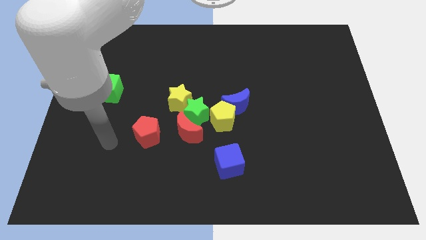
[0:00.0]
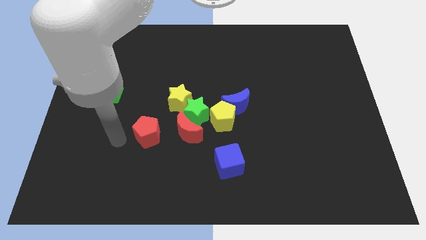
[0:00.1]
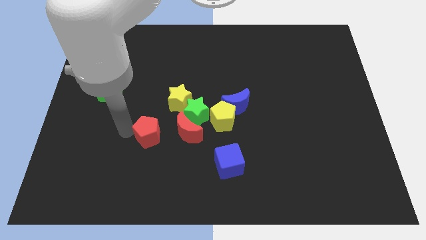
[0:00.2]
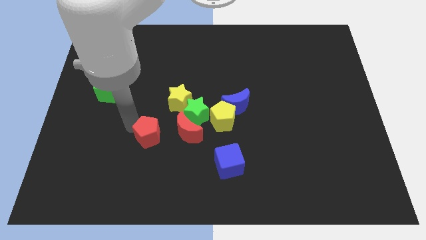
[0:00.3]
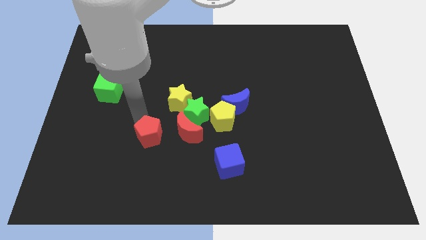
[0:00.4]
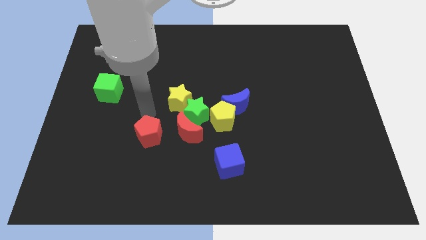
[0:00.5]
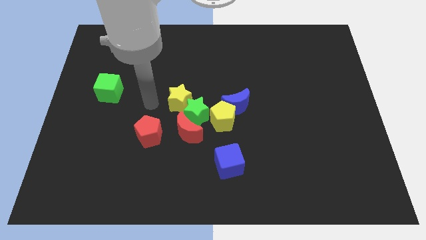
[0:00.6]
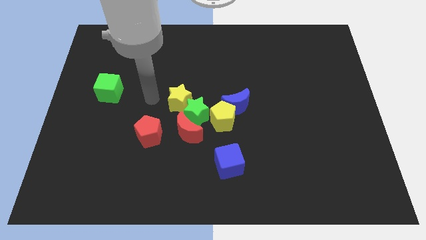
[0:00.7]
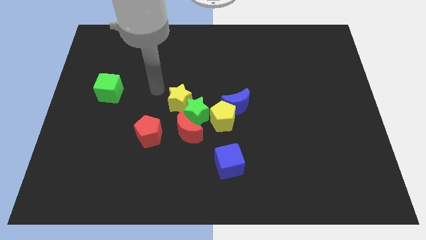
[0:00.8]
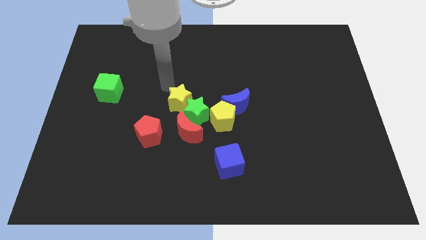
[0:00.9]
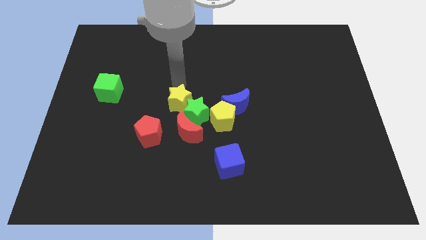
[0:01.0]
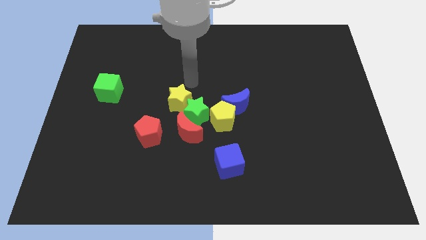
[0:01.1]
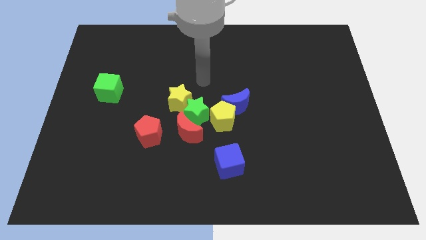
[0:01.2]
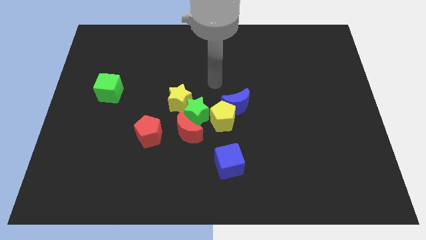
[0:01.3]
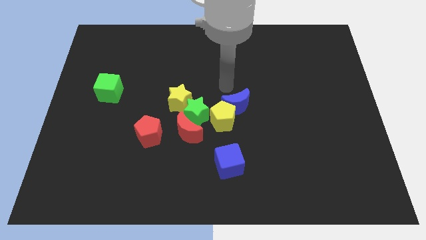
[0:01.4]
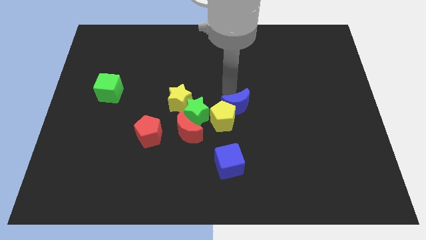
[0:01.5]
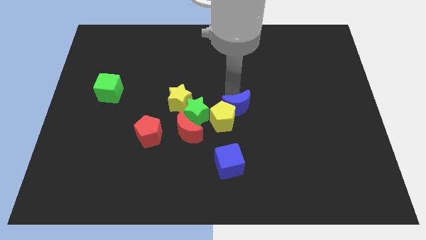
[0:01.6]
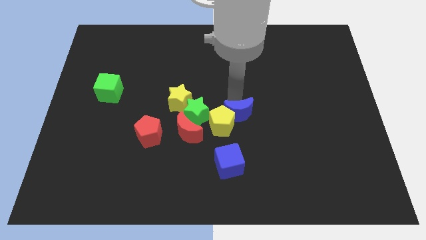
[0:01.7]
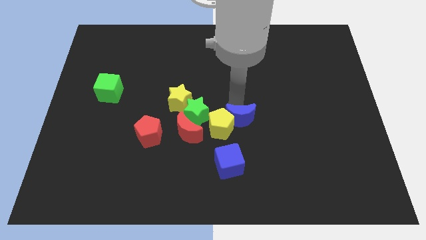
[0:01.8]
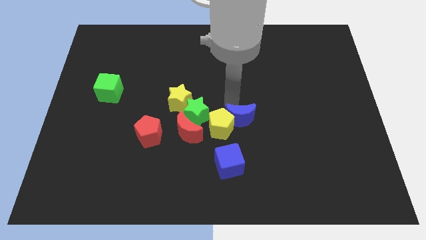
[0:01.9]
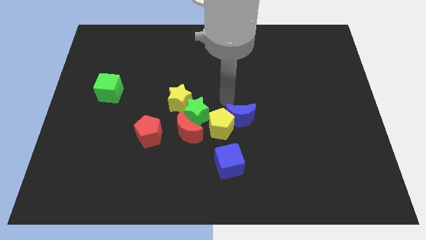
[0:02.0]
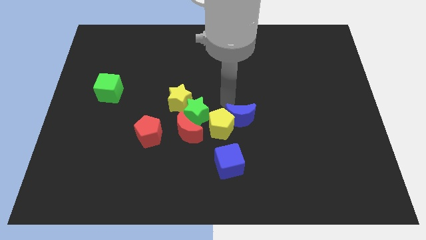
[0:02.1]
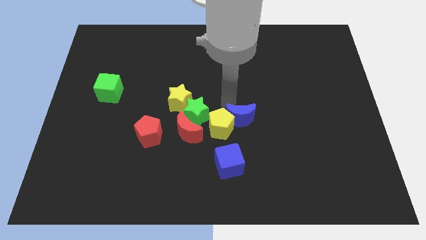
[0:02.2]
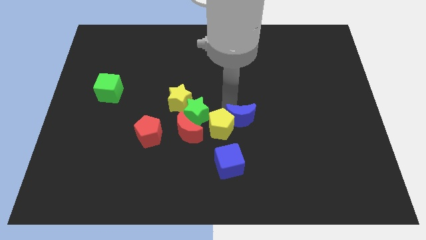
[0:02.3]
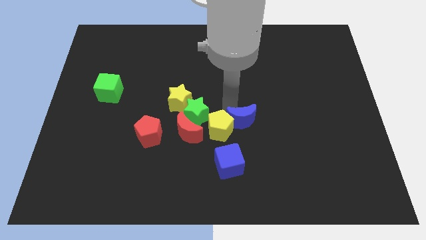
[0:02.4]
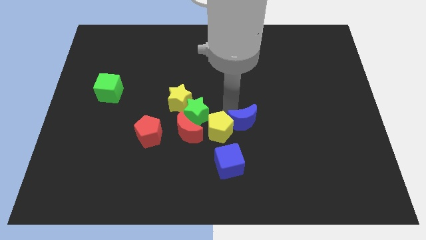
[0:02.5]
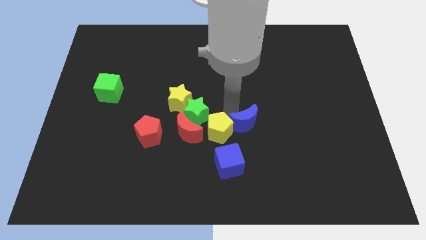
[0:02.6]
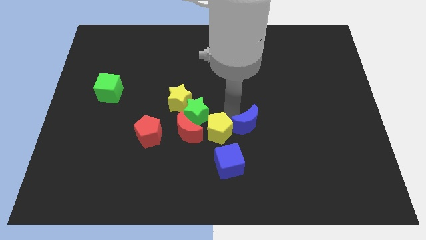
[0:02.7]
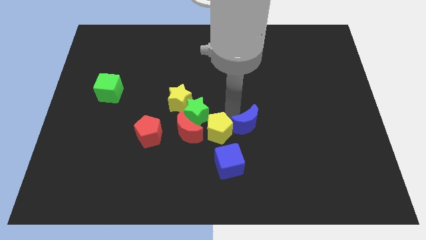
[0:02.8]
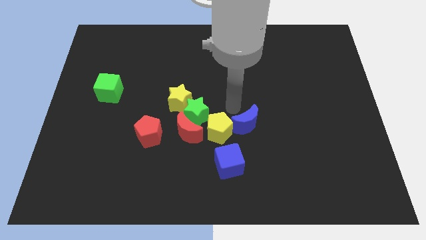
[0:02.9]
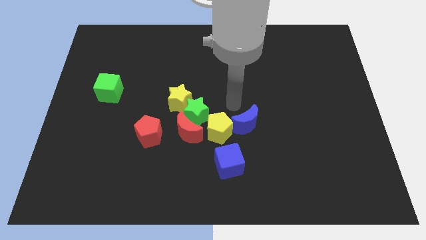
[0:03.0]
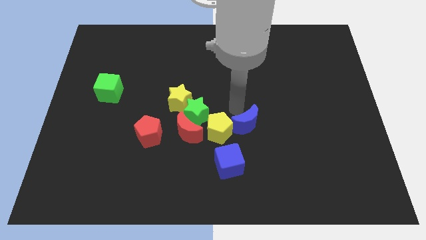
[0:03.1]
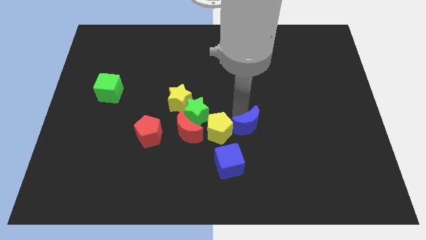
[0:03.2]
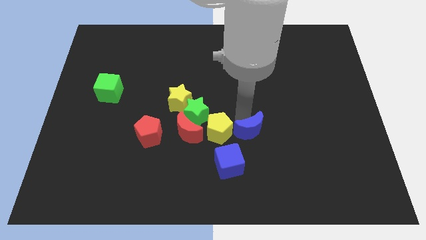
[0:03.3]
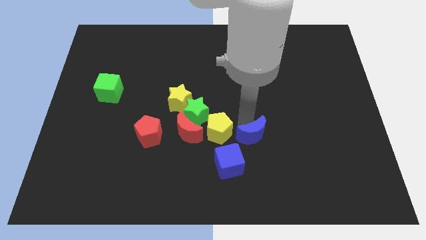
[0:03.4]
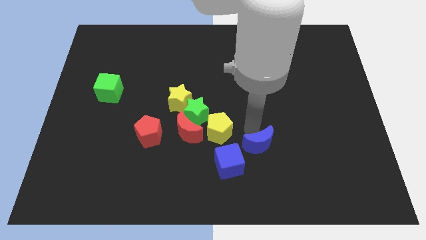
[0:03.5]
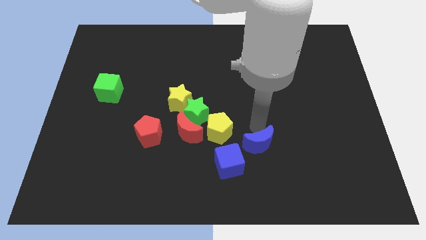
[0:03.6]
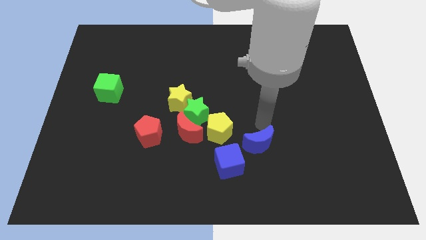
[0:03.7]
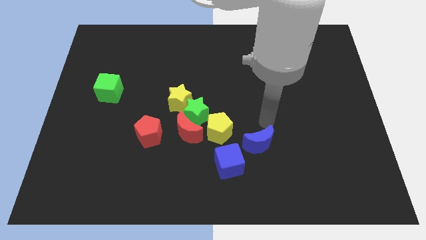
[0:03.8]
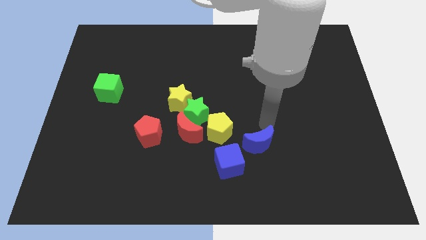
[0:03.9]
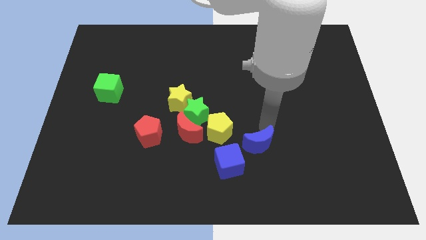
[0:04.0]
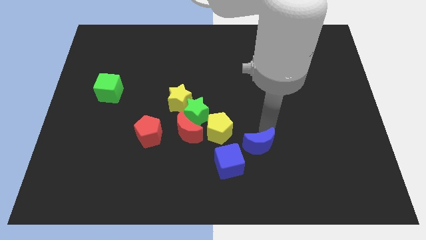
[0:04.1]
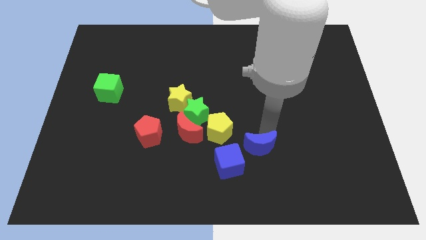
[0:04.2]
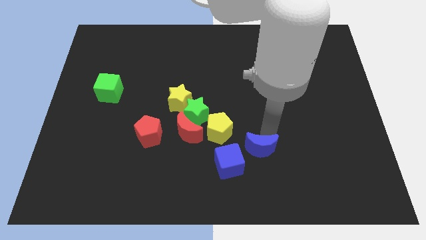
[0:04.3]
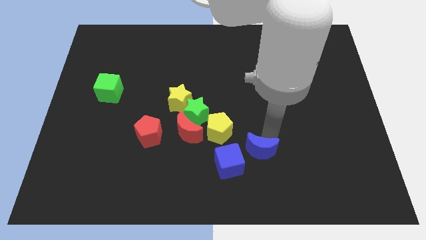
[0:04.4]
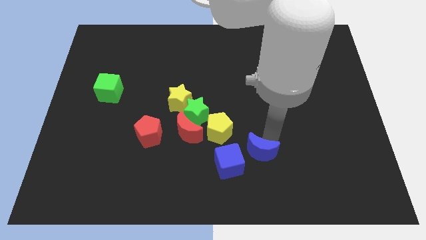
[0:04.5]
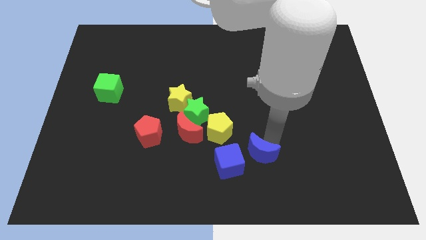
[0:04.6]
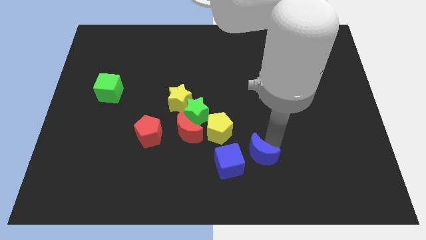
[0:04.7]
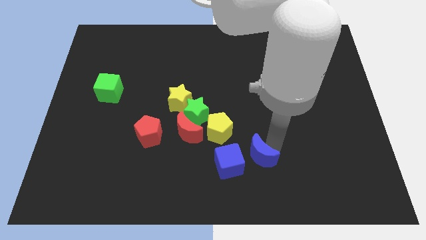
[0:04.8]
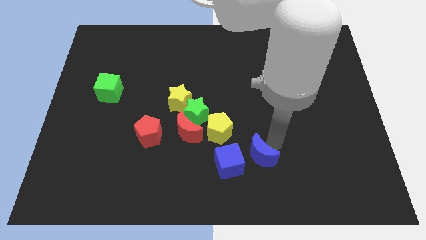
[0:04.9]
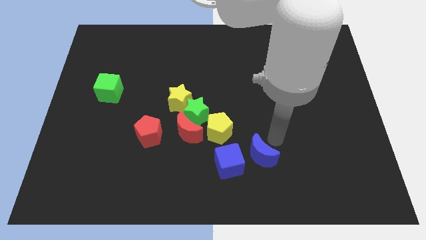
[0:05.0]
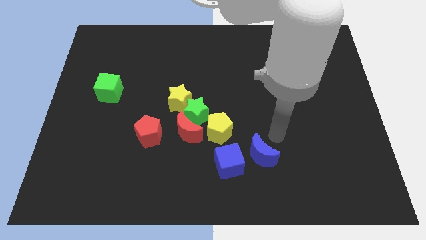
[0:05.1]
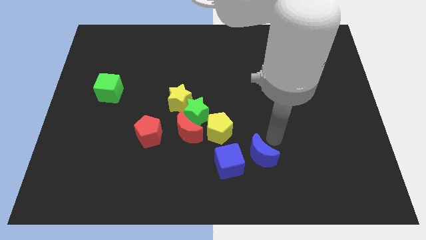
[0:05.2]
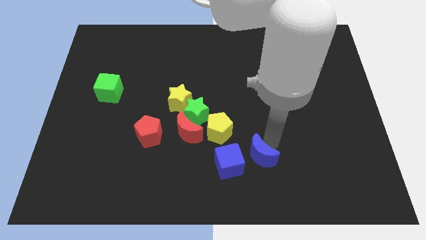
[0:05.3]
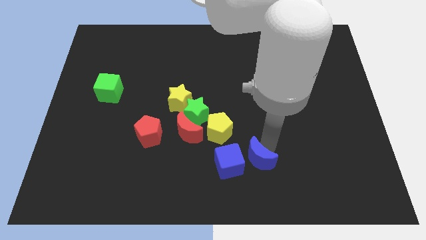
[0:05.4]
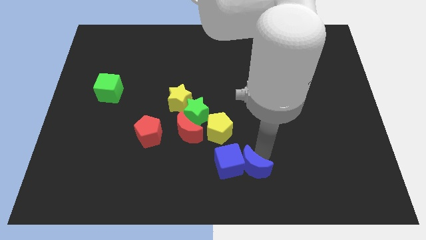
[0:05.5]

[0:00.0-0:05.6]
put the blue moon to the bottom

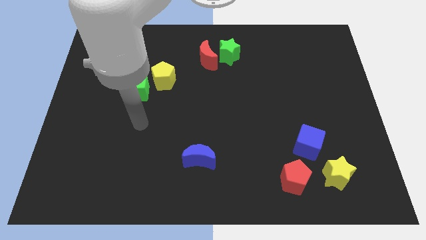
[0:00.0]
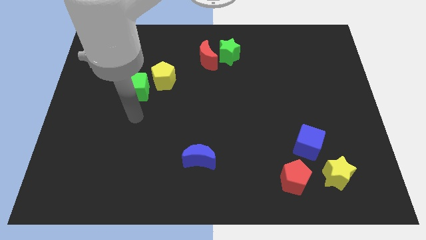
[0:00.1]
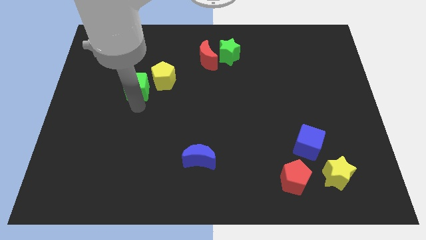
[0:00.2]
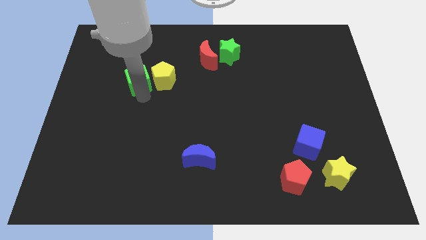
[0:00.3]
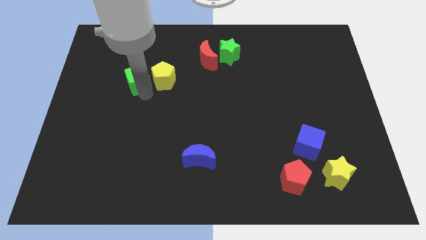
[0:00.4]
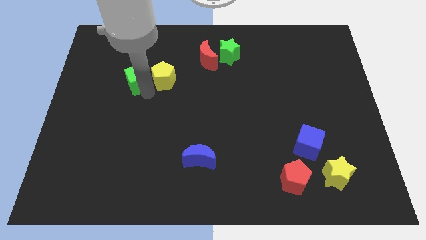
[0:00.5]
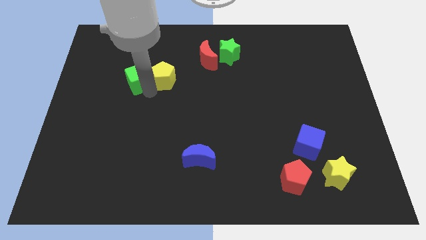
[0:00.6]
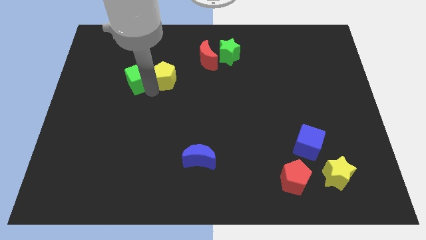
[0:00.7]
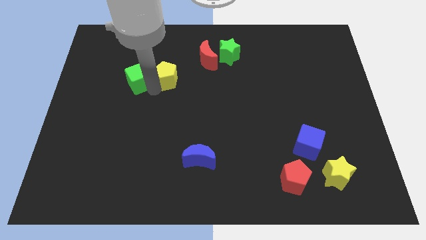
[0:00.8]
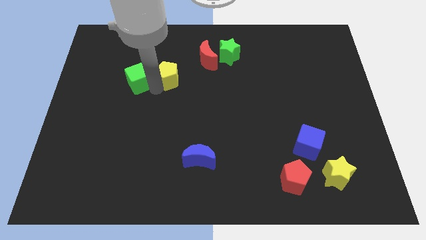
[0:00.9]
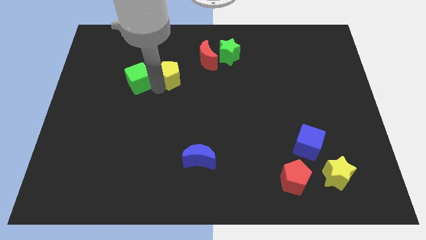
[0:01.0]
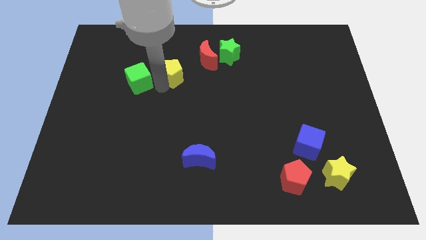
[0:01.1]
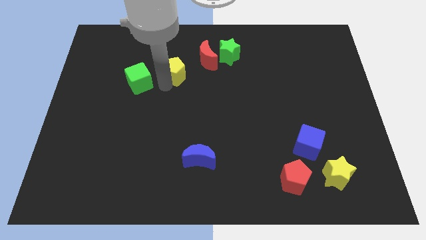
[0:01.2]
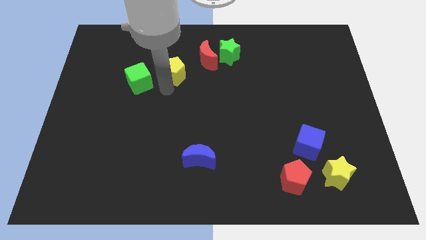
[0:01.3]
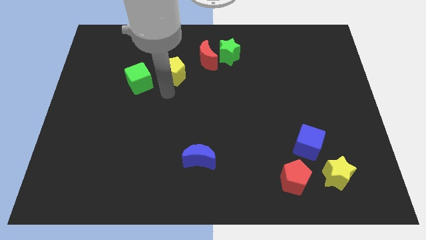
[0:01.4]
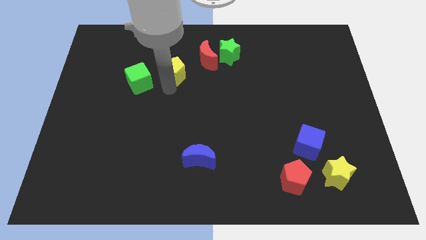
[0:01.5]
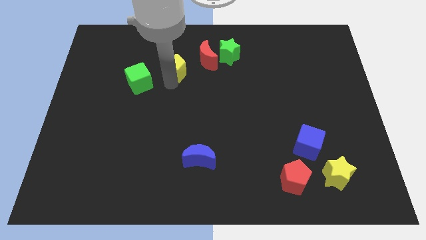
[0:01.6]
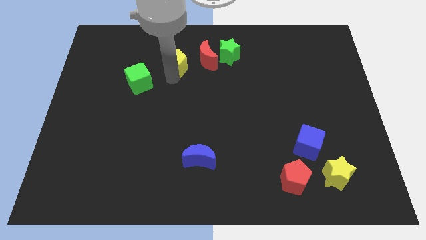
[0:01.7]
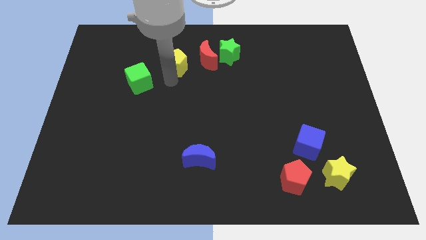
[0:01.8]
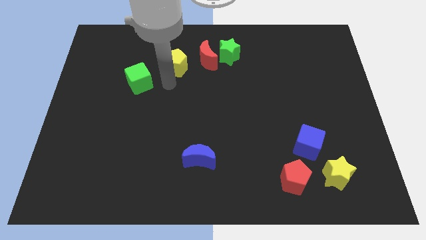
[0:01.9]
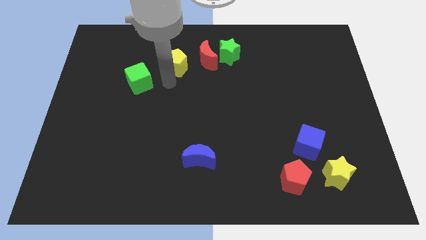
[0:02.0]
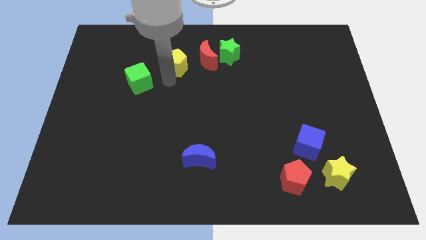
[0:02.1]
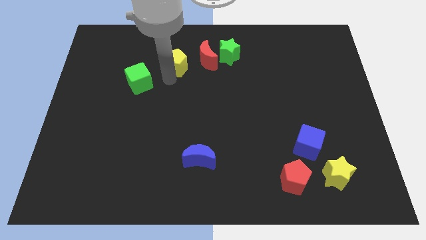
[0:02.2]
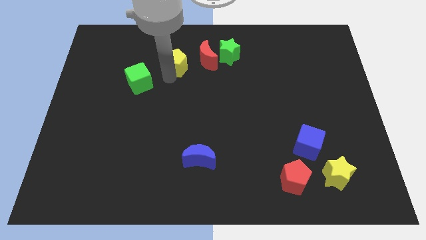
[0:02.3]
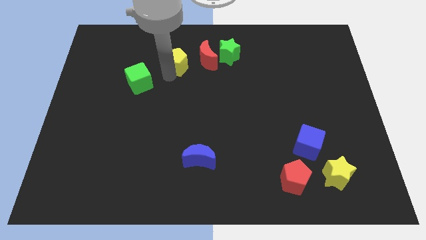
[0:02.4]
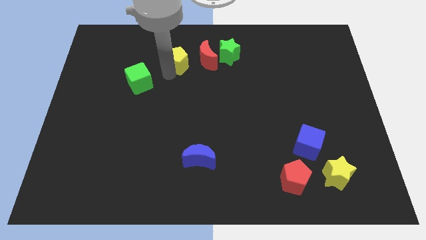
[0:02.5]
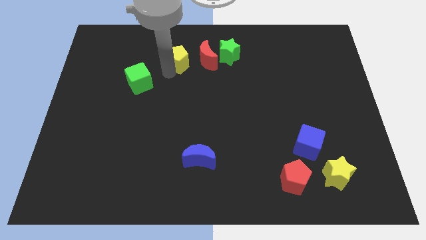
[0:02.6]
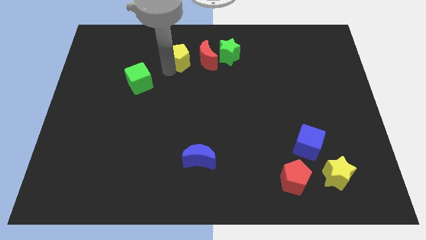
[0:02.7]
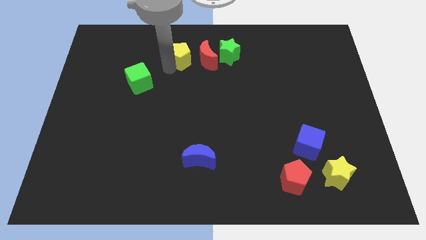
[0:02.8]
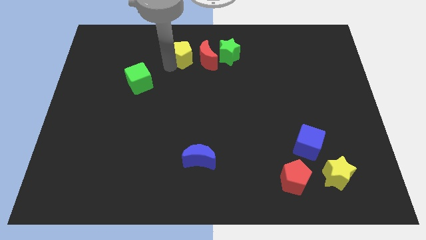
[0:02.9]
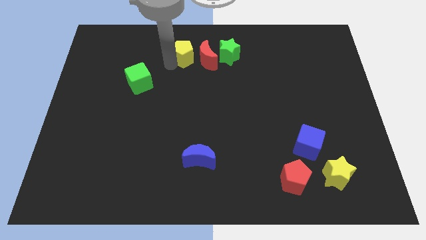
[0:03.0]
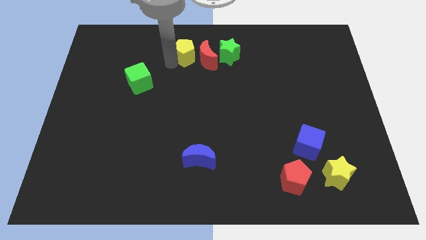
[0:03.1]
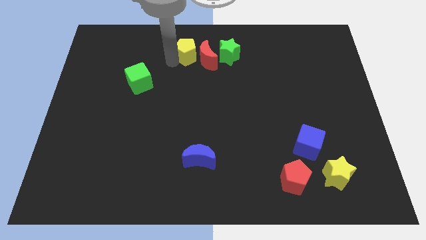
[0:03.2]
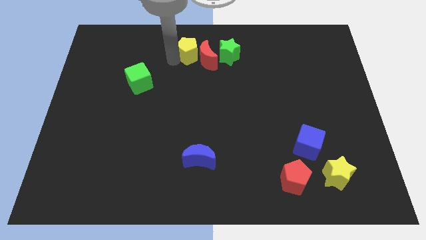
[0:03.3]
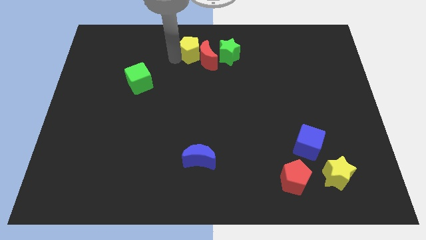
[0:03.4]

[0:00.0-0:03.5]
move the yellow pentagon to the top
